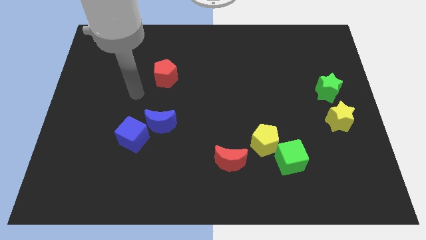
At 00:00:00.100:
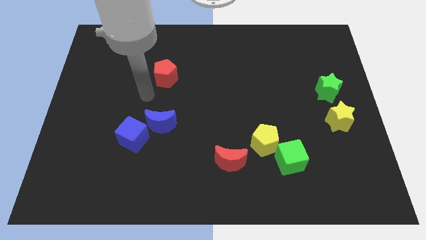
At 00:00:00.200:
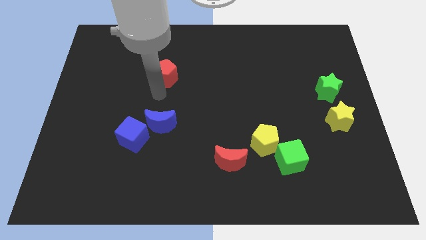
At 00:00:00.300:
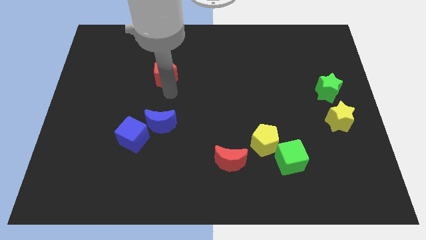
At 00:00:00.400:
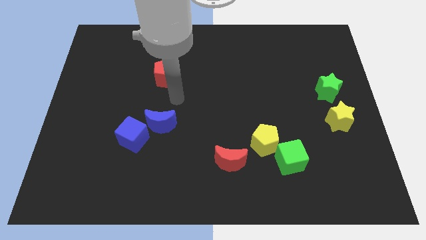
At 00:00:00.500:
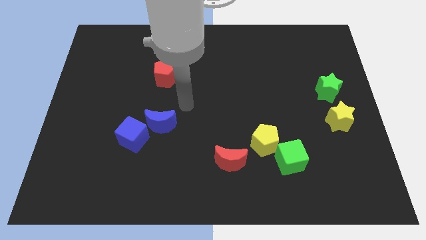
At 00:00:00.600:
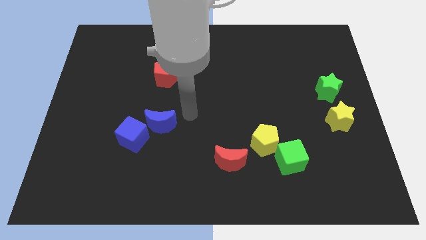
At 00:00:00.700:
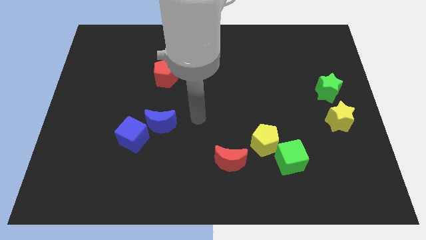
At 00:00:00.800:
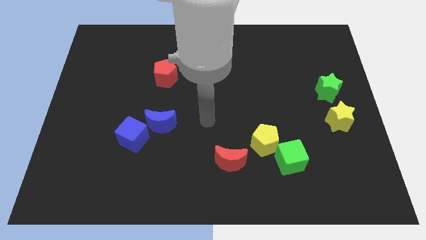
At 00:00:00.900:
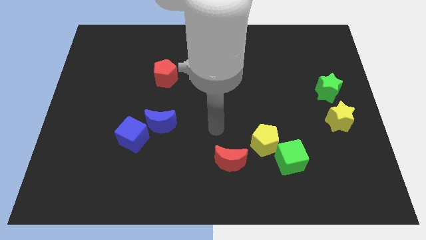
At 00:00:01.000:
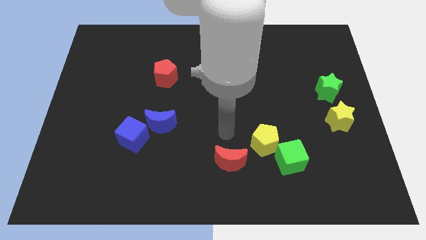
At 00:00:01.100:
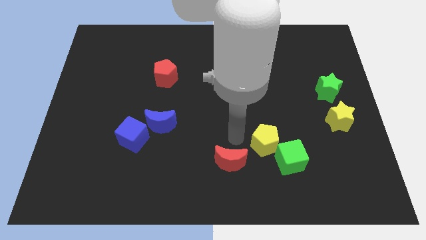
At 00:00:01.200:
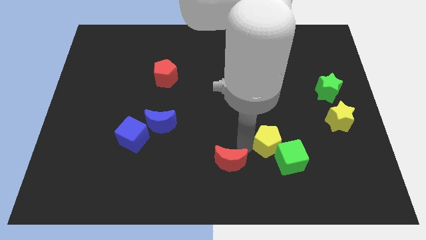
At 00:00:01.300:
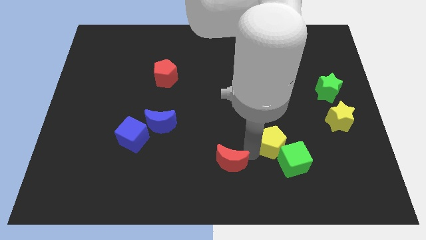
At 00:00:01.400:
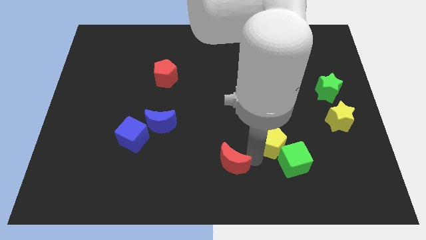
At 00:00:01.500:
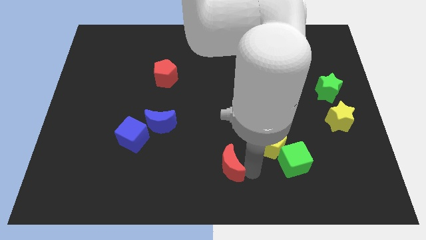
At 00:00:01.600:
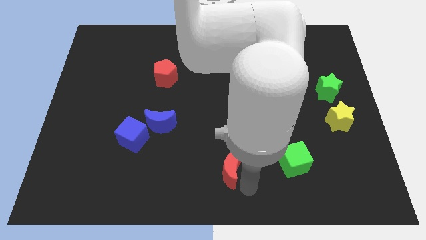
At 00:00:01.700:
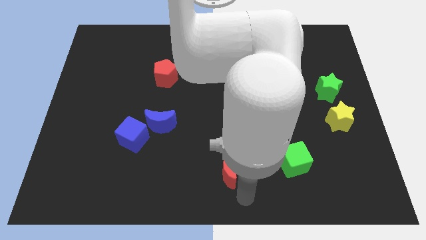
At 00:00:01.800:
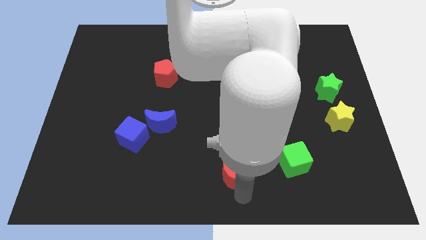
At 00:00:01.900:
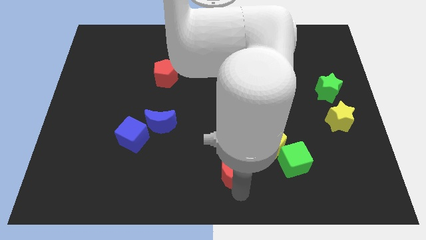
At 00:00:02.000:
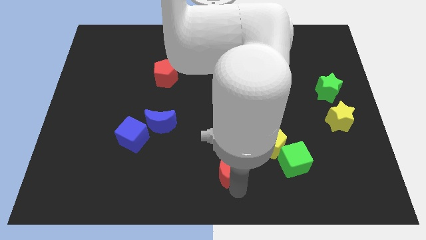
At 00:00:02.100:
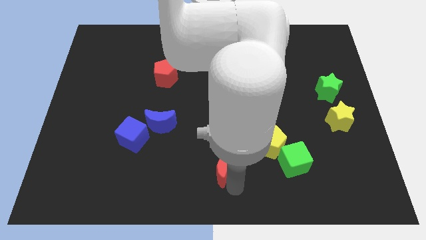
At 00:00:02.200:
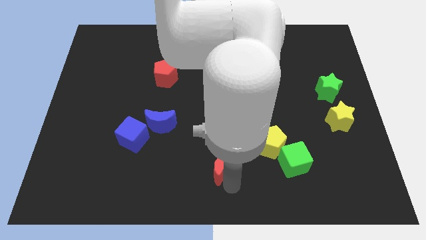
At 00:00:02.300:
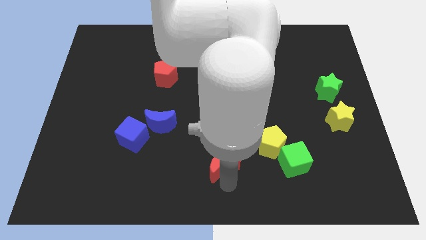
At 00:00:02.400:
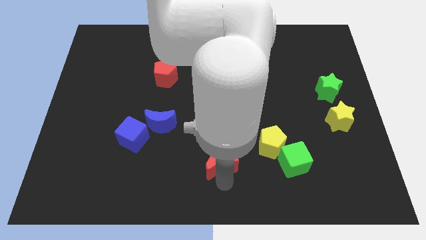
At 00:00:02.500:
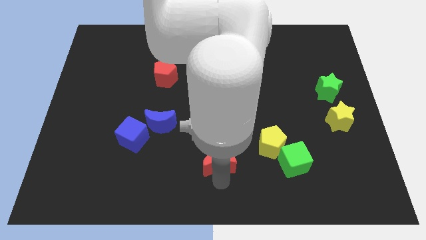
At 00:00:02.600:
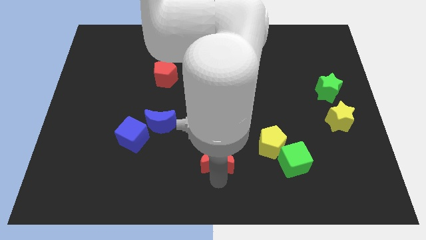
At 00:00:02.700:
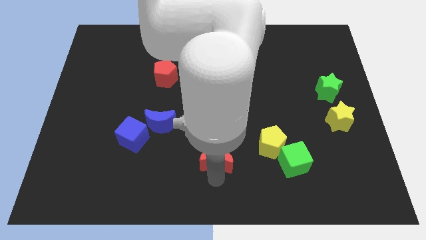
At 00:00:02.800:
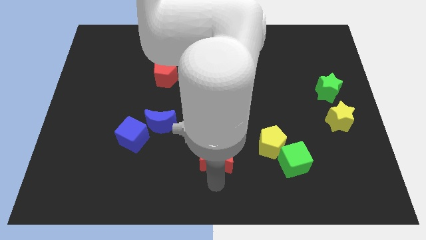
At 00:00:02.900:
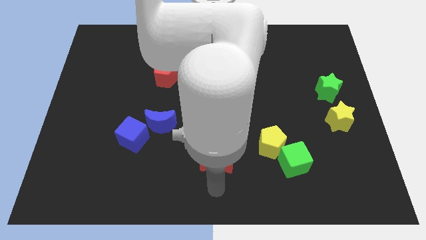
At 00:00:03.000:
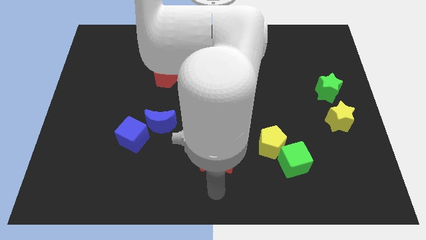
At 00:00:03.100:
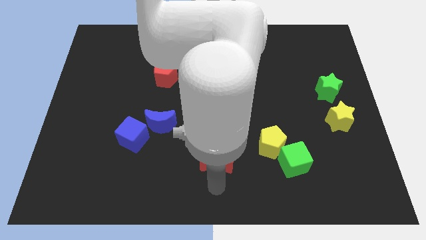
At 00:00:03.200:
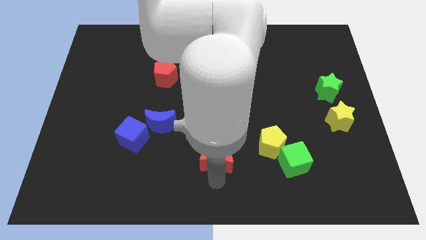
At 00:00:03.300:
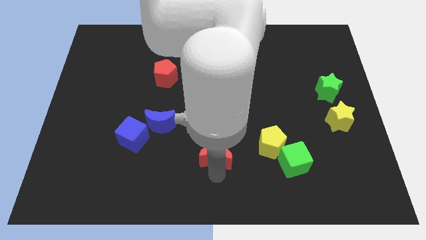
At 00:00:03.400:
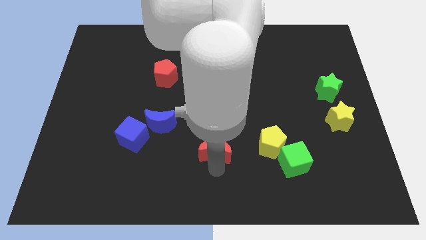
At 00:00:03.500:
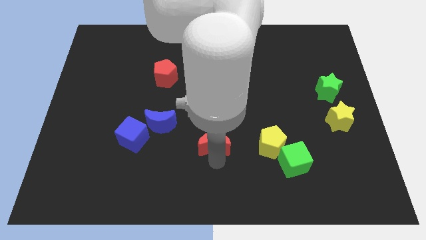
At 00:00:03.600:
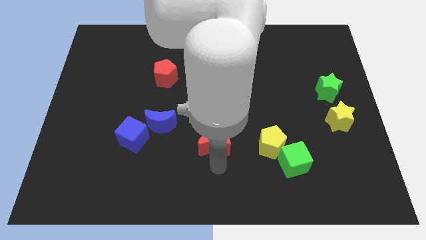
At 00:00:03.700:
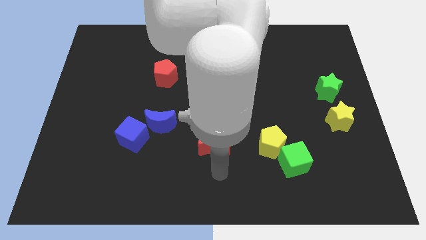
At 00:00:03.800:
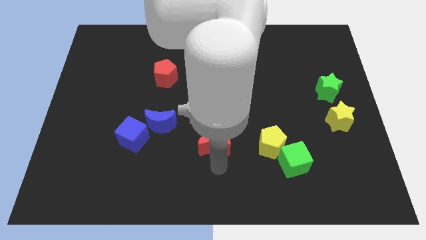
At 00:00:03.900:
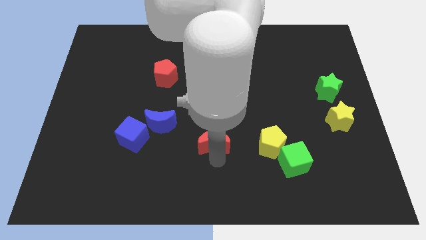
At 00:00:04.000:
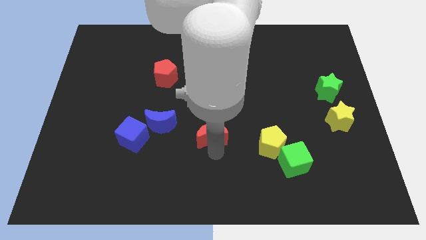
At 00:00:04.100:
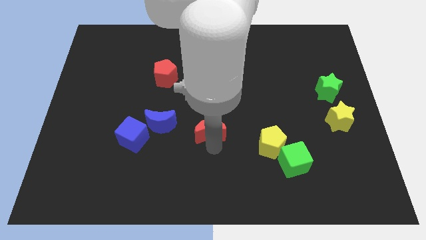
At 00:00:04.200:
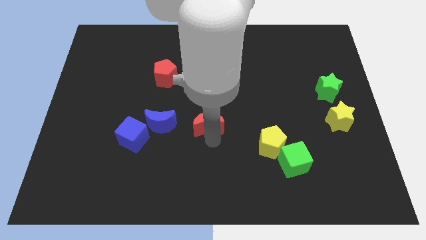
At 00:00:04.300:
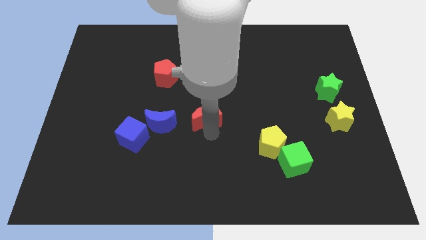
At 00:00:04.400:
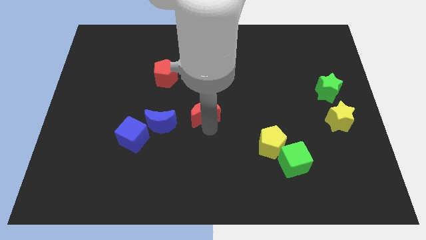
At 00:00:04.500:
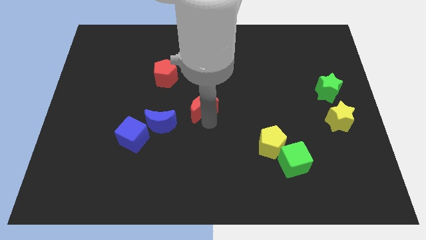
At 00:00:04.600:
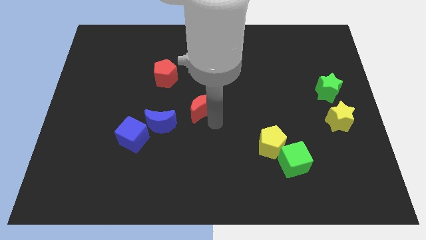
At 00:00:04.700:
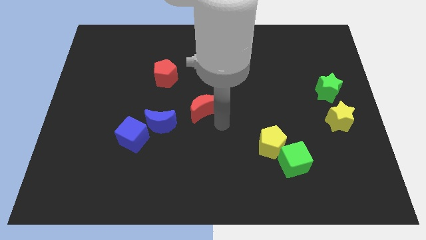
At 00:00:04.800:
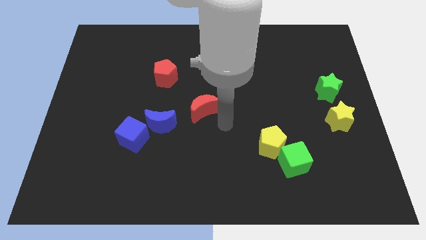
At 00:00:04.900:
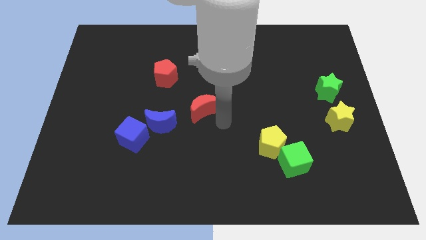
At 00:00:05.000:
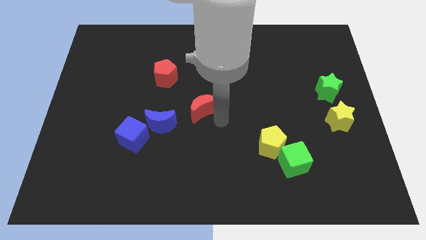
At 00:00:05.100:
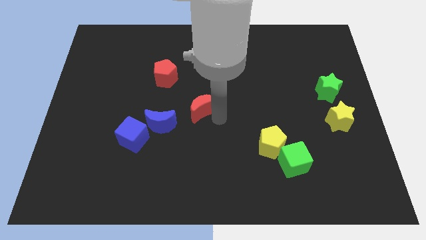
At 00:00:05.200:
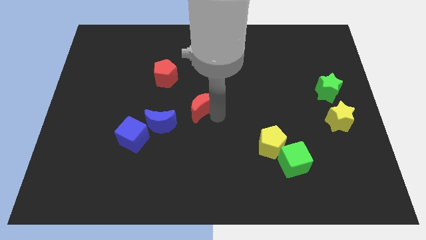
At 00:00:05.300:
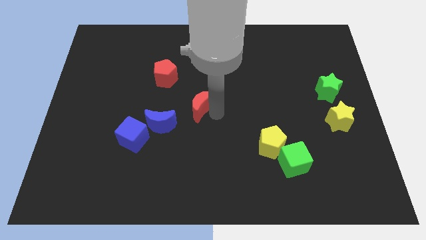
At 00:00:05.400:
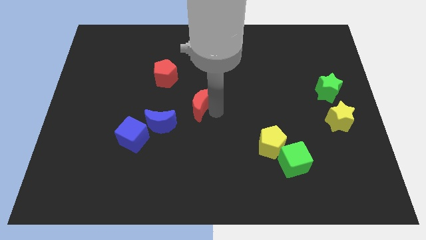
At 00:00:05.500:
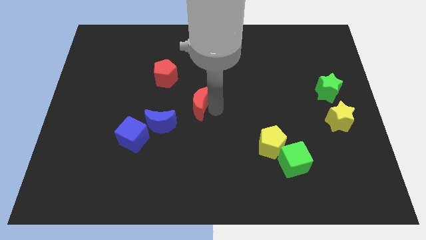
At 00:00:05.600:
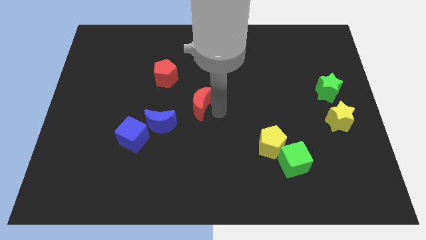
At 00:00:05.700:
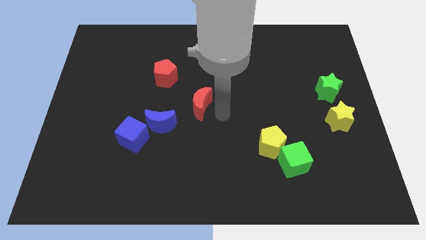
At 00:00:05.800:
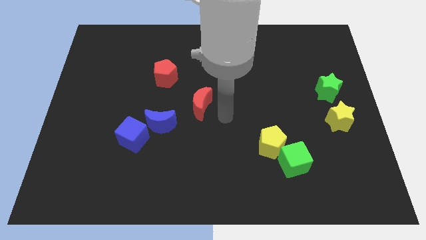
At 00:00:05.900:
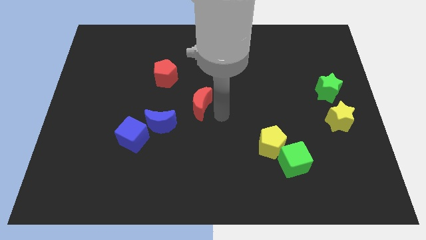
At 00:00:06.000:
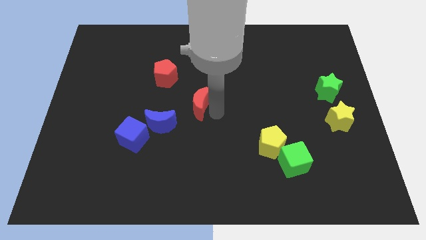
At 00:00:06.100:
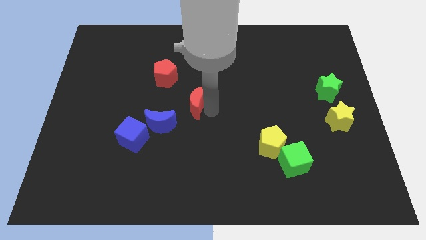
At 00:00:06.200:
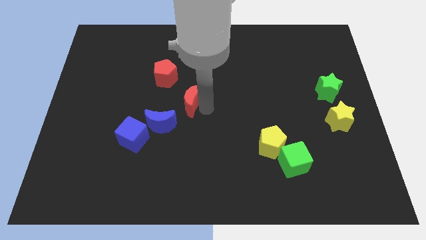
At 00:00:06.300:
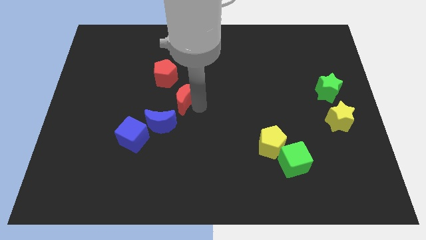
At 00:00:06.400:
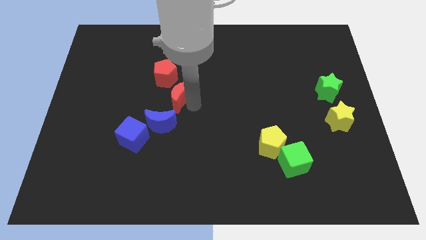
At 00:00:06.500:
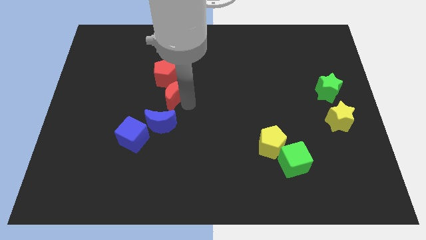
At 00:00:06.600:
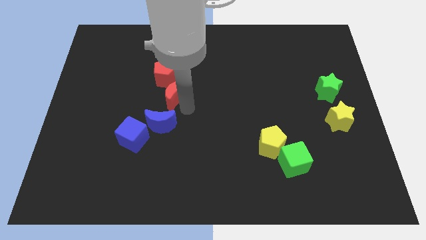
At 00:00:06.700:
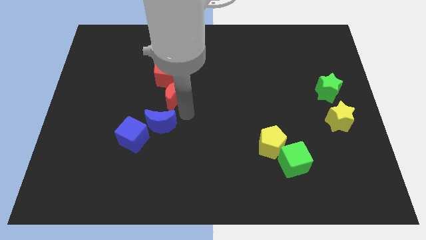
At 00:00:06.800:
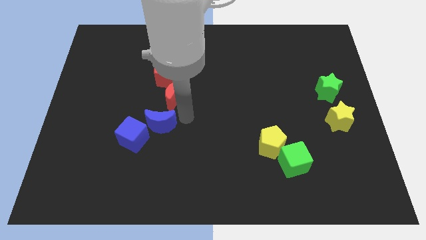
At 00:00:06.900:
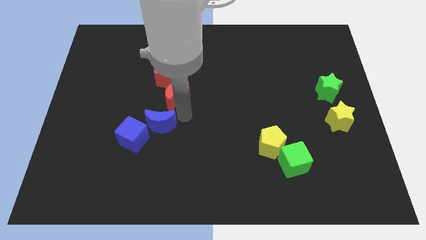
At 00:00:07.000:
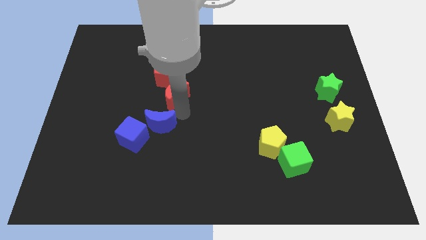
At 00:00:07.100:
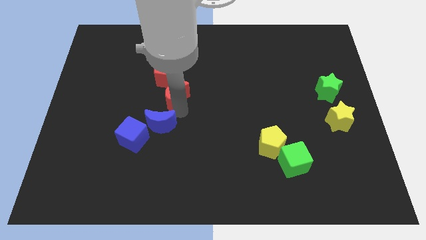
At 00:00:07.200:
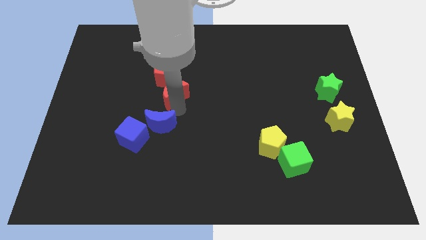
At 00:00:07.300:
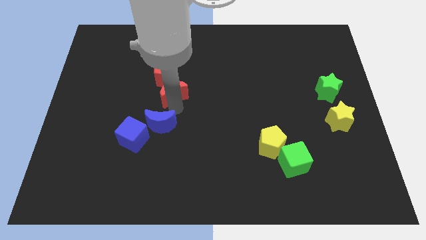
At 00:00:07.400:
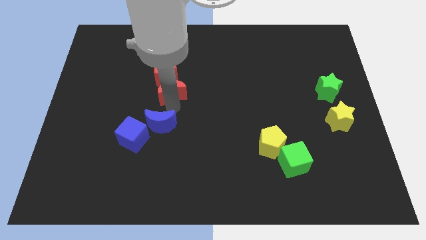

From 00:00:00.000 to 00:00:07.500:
move the red moon next to the red pentagon
